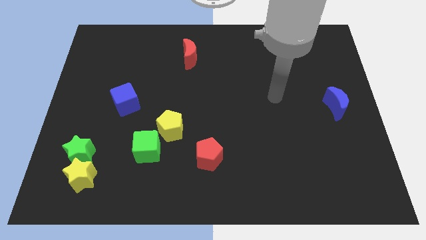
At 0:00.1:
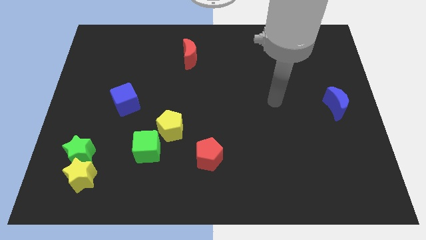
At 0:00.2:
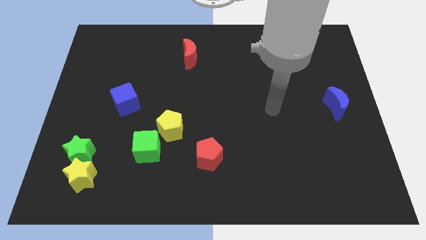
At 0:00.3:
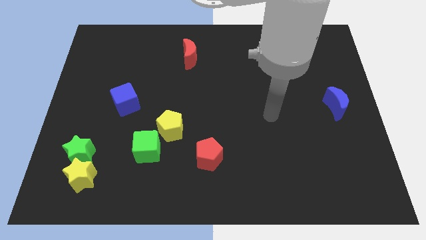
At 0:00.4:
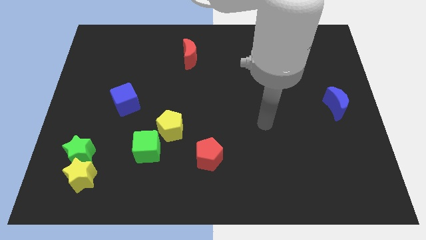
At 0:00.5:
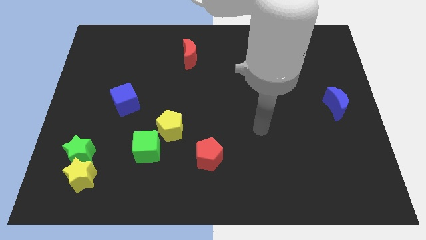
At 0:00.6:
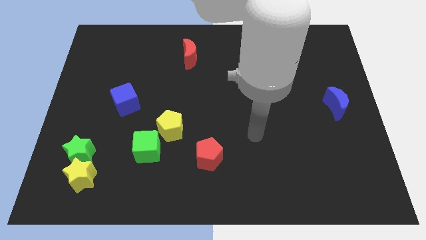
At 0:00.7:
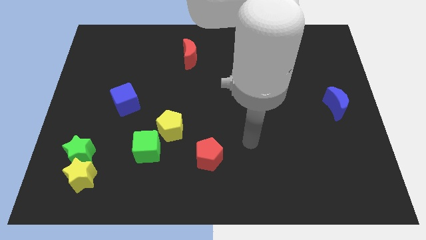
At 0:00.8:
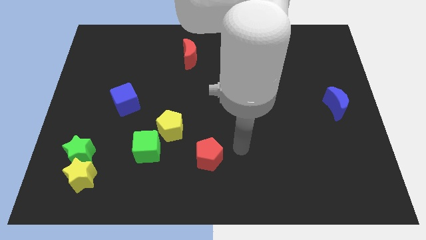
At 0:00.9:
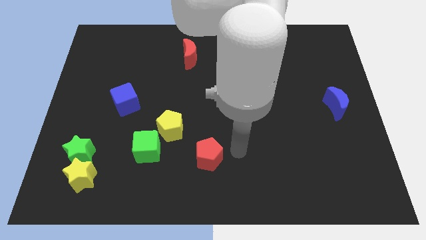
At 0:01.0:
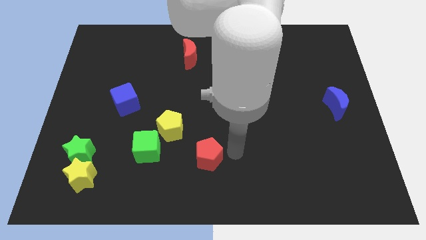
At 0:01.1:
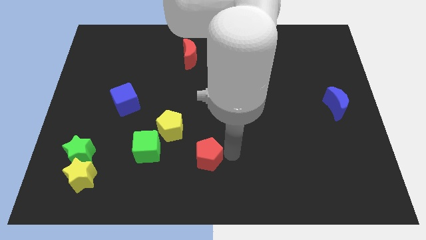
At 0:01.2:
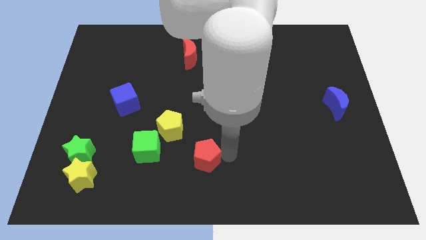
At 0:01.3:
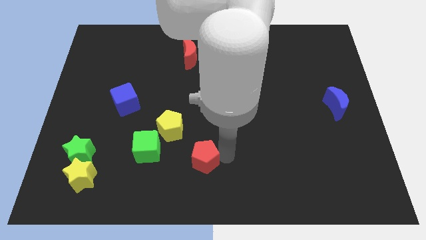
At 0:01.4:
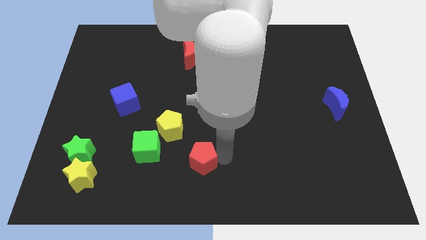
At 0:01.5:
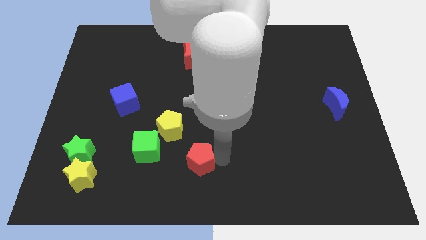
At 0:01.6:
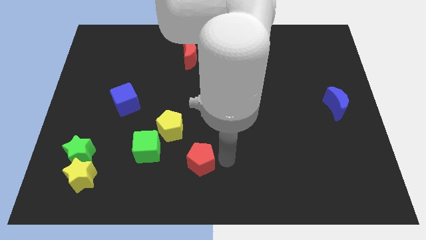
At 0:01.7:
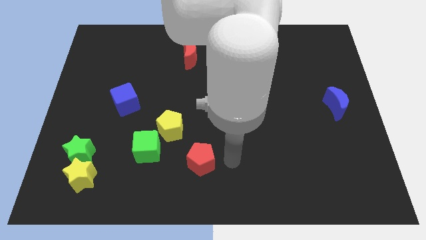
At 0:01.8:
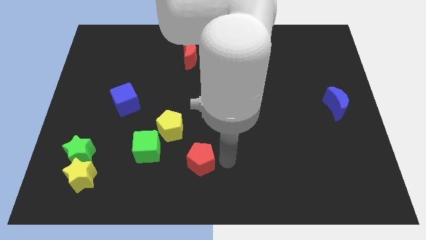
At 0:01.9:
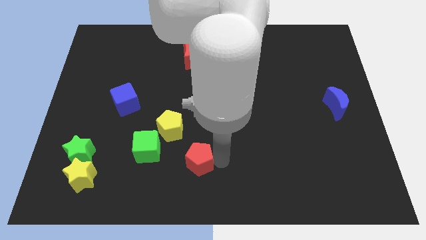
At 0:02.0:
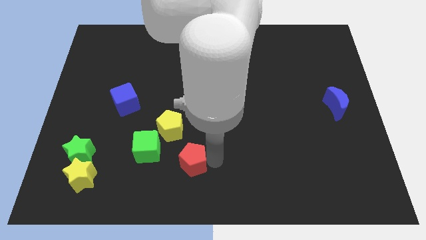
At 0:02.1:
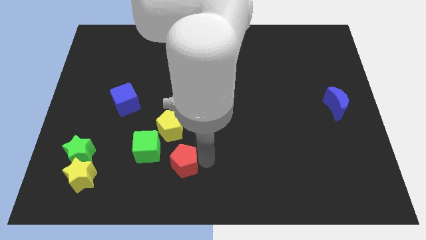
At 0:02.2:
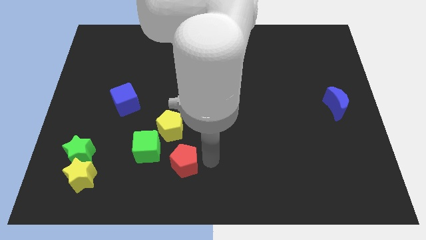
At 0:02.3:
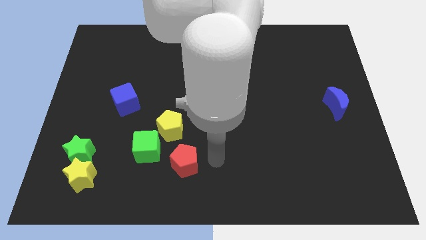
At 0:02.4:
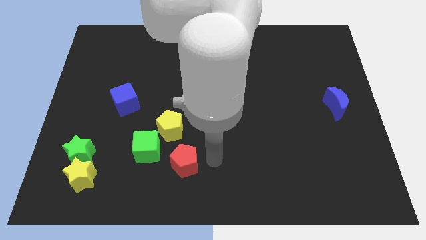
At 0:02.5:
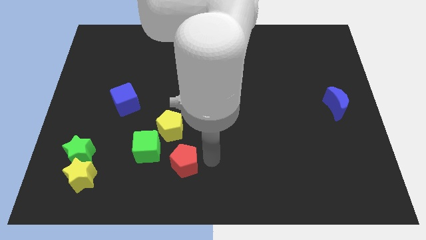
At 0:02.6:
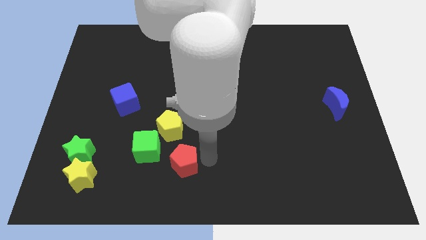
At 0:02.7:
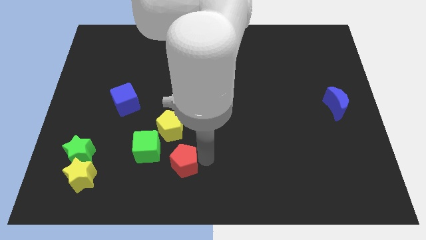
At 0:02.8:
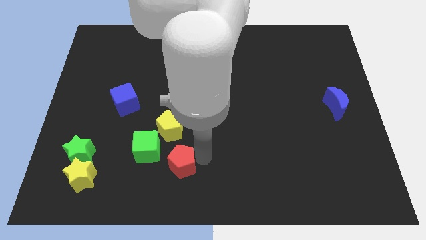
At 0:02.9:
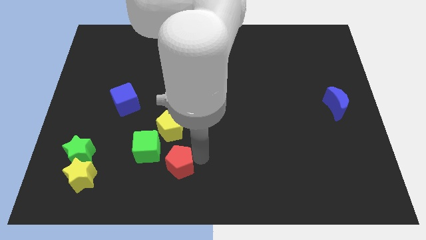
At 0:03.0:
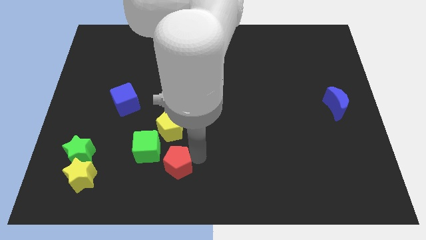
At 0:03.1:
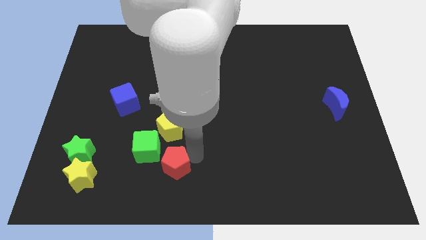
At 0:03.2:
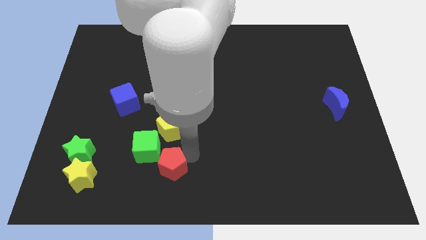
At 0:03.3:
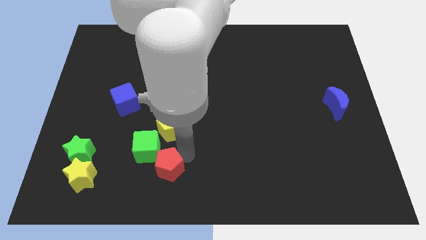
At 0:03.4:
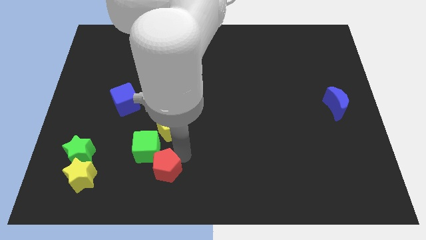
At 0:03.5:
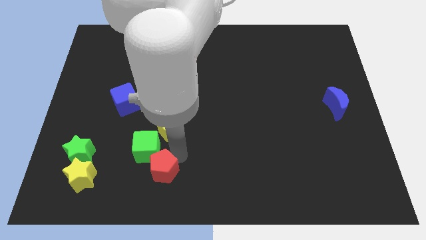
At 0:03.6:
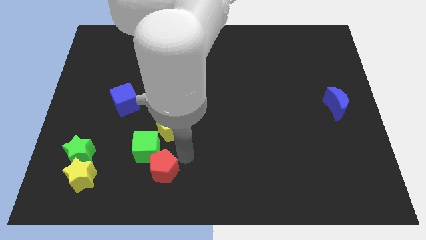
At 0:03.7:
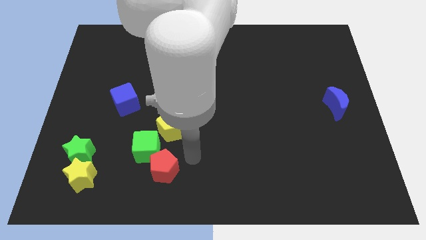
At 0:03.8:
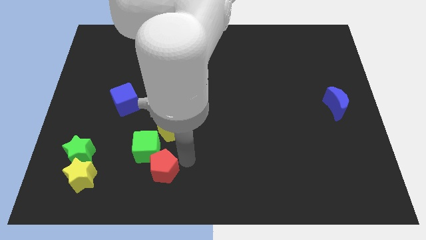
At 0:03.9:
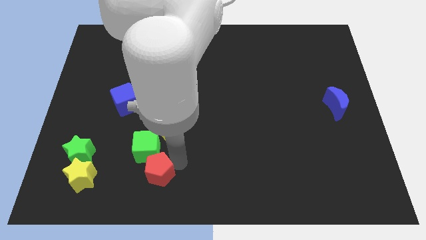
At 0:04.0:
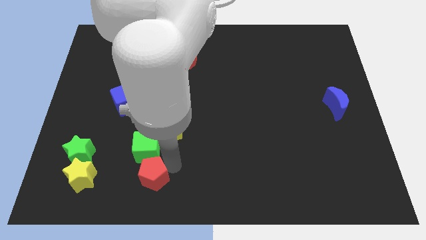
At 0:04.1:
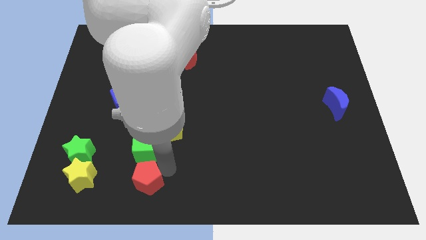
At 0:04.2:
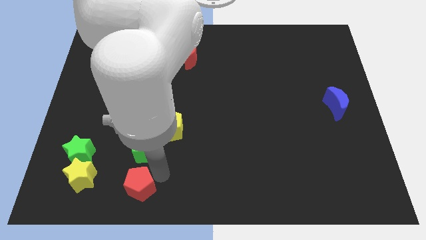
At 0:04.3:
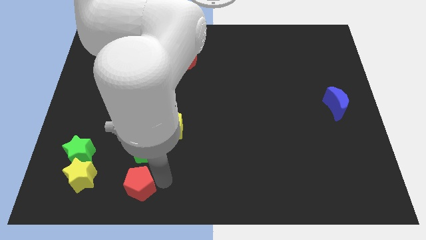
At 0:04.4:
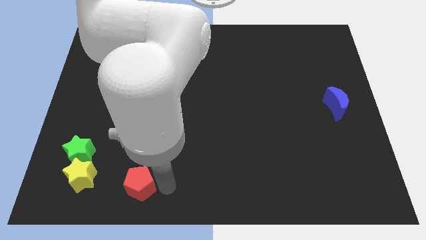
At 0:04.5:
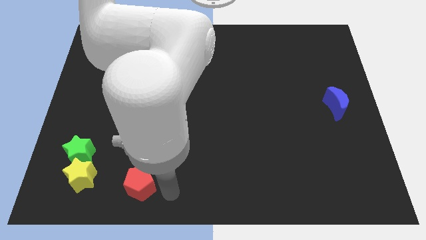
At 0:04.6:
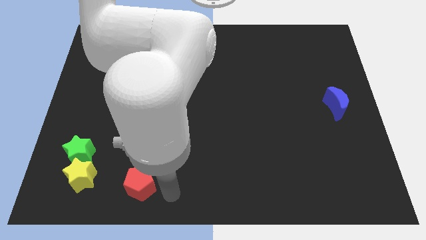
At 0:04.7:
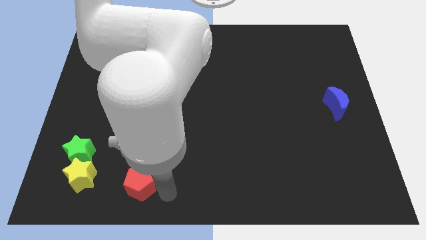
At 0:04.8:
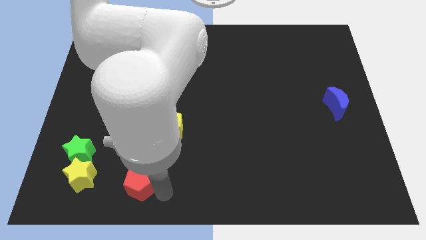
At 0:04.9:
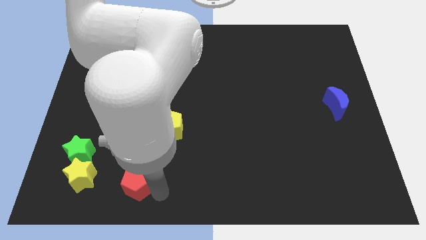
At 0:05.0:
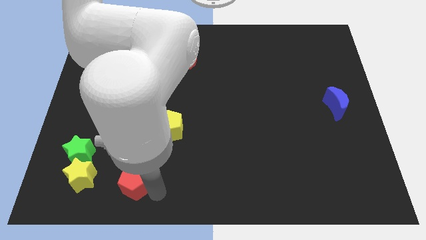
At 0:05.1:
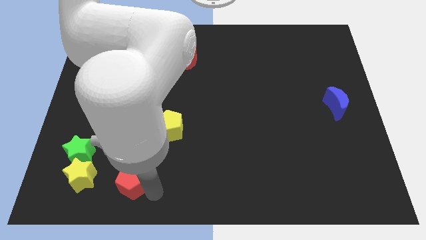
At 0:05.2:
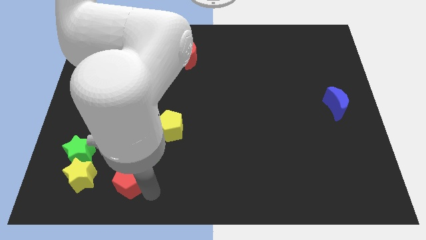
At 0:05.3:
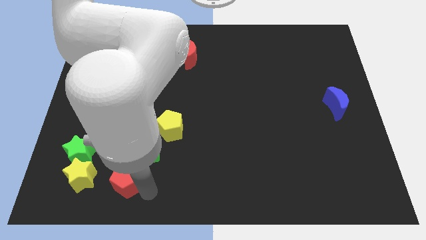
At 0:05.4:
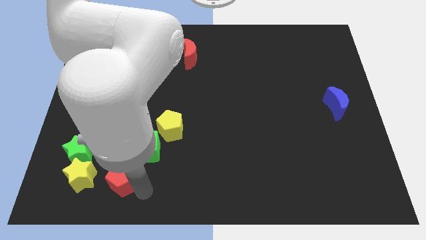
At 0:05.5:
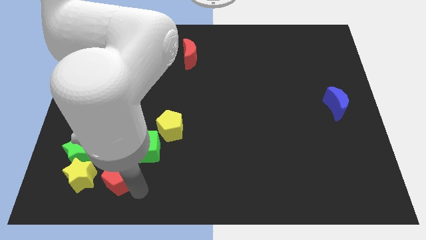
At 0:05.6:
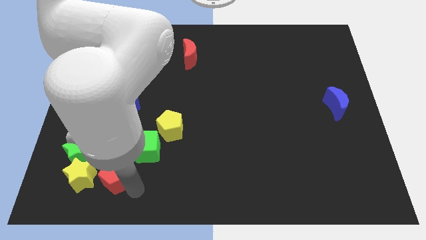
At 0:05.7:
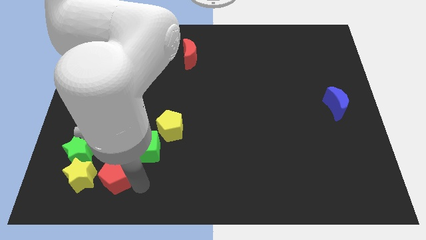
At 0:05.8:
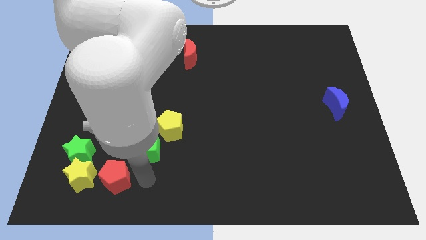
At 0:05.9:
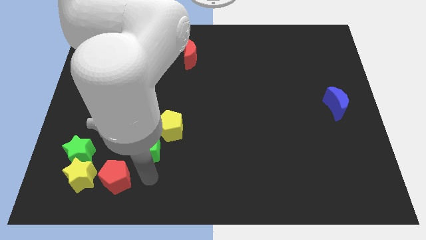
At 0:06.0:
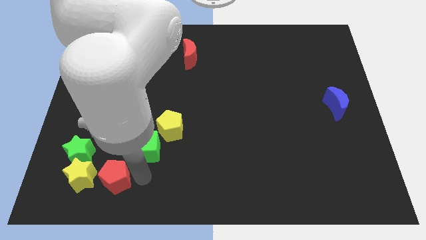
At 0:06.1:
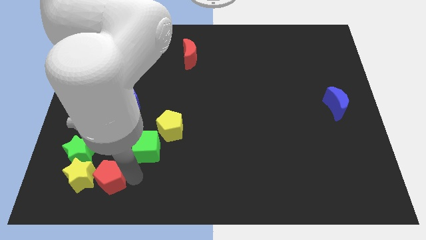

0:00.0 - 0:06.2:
put the red pentagon towards the yellow star

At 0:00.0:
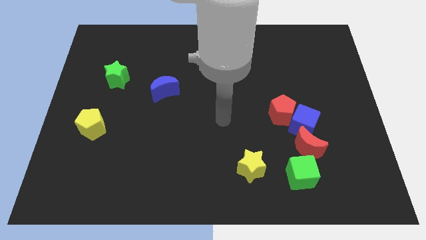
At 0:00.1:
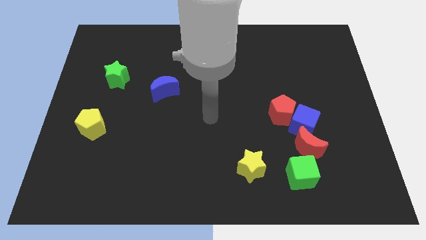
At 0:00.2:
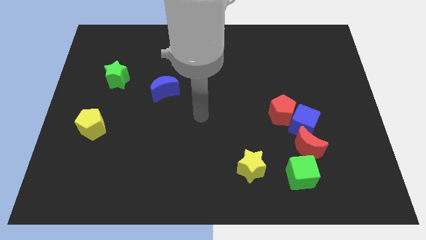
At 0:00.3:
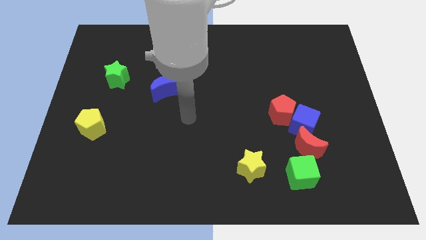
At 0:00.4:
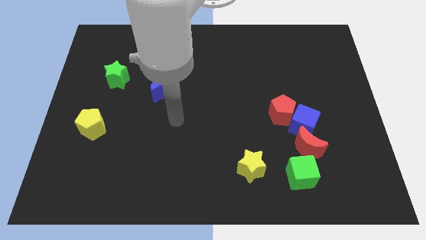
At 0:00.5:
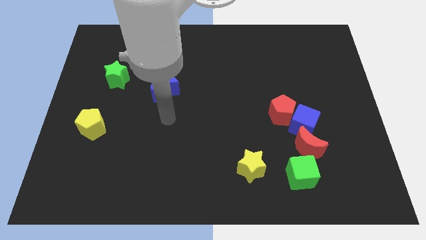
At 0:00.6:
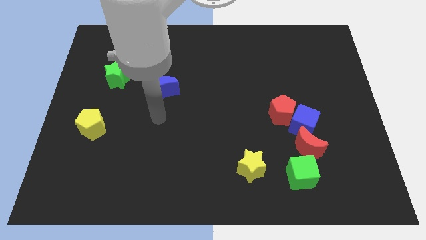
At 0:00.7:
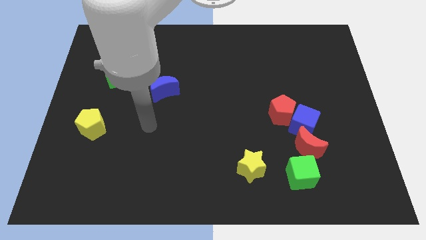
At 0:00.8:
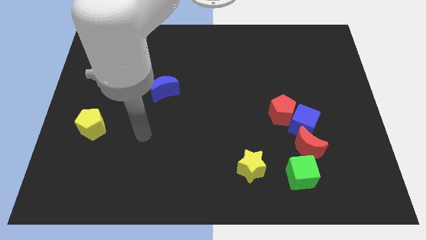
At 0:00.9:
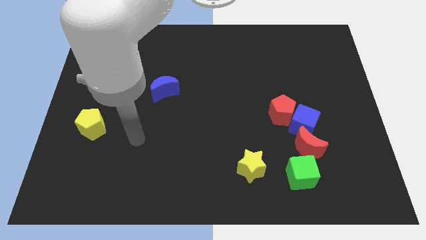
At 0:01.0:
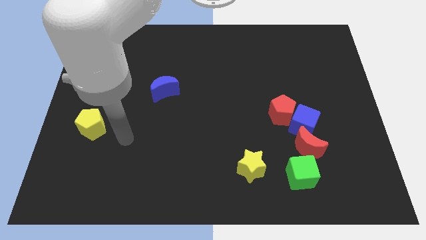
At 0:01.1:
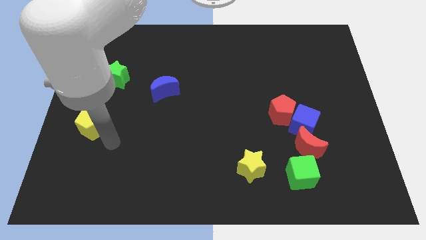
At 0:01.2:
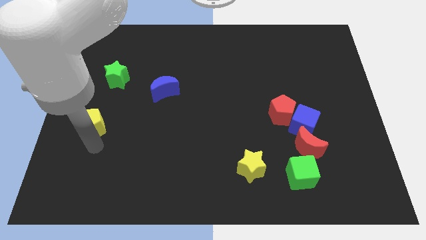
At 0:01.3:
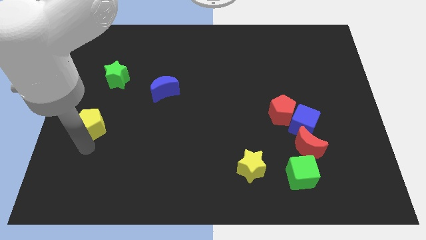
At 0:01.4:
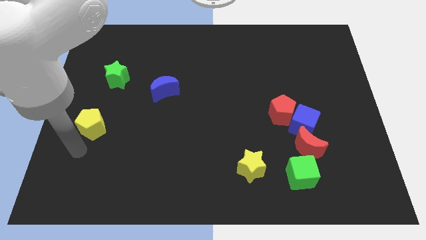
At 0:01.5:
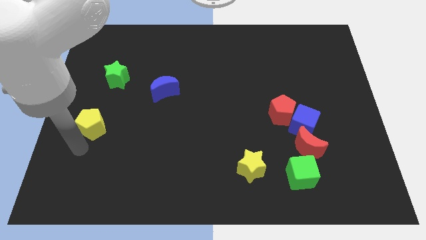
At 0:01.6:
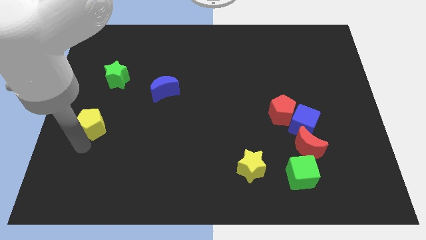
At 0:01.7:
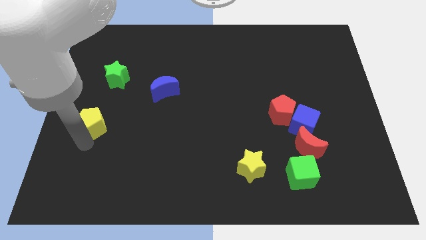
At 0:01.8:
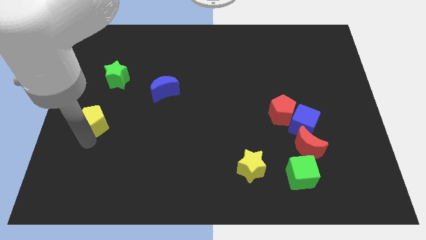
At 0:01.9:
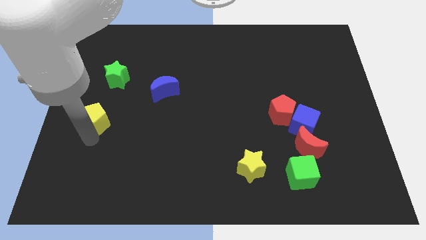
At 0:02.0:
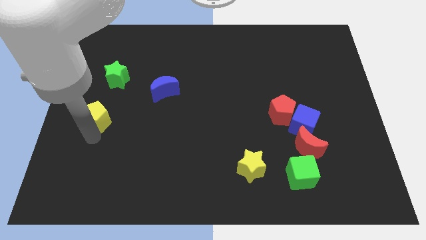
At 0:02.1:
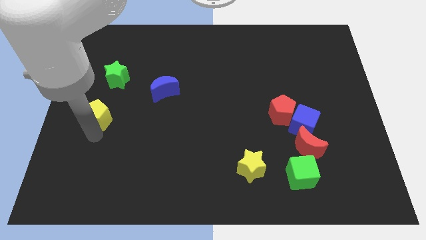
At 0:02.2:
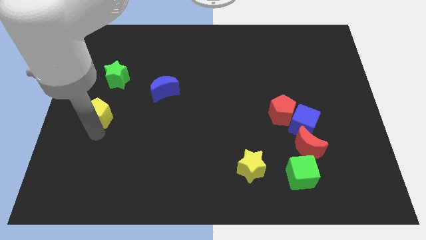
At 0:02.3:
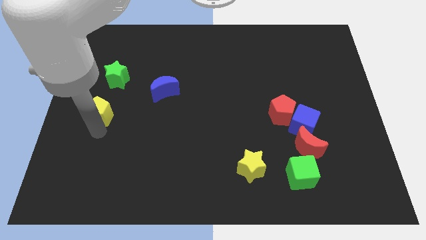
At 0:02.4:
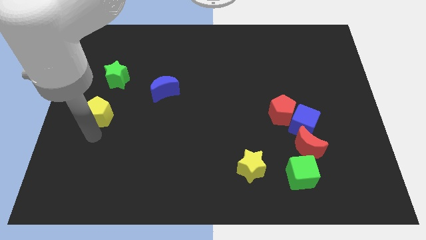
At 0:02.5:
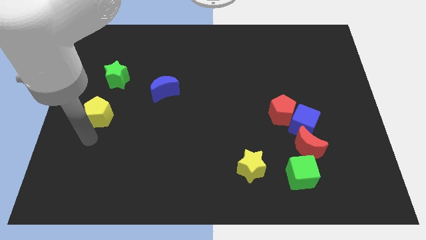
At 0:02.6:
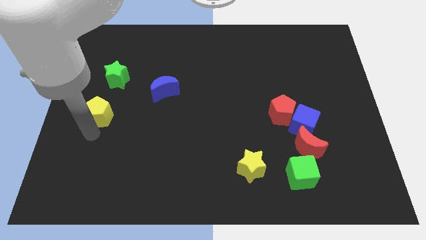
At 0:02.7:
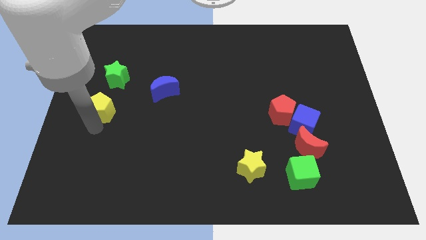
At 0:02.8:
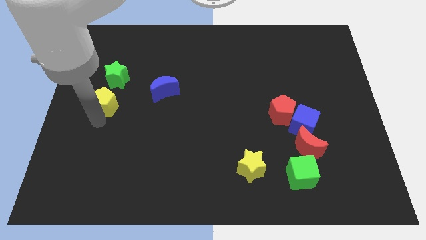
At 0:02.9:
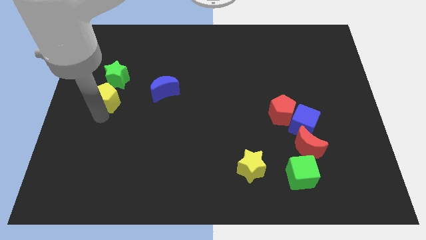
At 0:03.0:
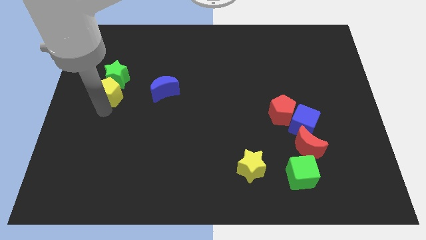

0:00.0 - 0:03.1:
push the yellow pentagon towards the green star
